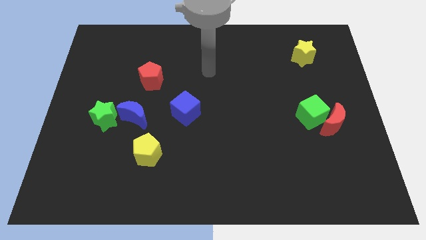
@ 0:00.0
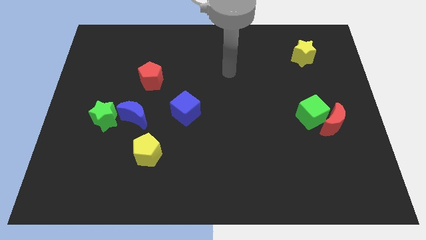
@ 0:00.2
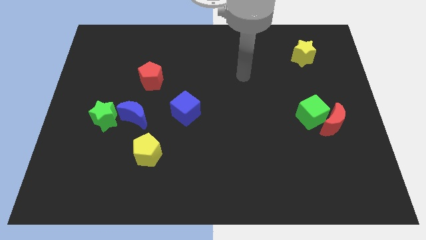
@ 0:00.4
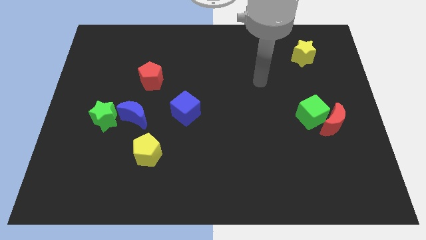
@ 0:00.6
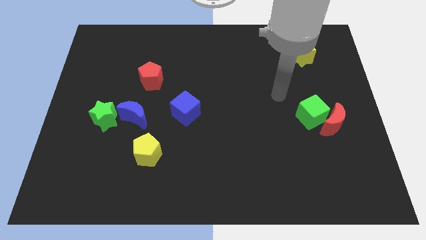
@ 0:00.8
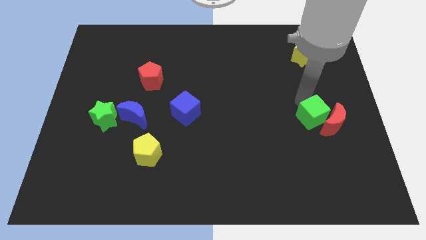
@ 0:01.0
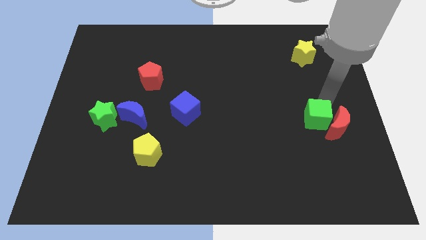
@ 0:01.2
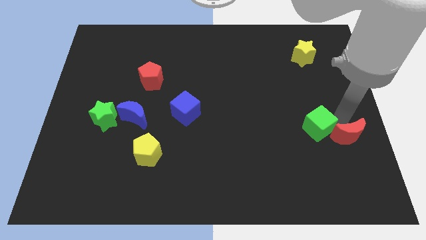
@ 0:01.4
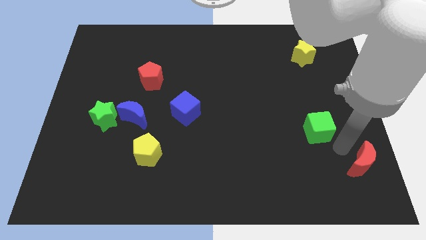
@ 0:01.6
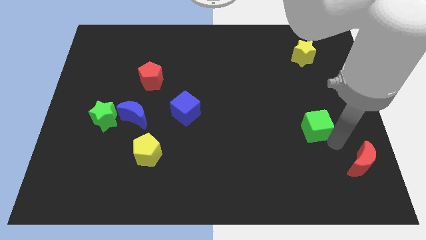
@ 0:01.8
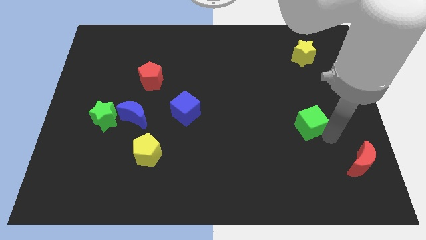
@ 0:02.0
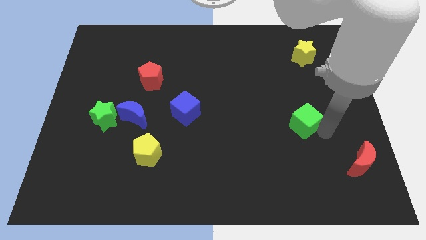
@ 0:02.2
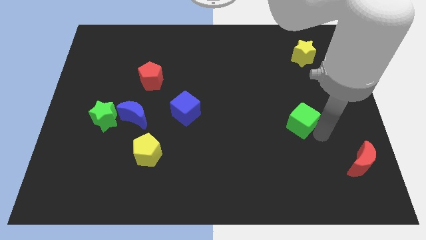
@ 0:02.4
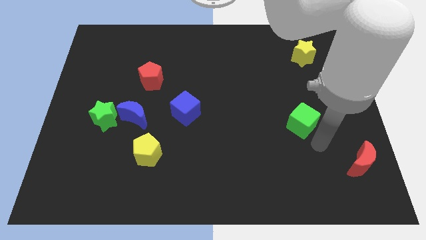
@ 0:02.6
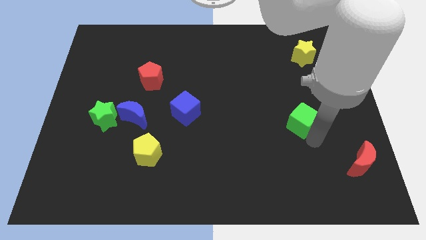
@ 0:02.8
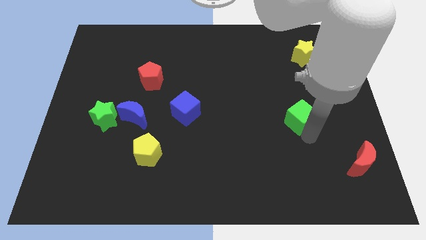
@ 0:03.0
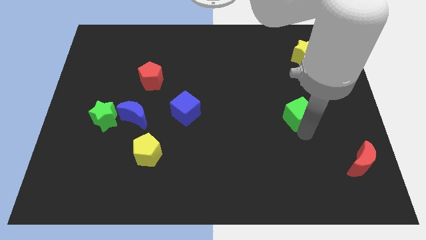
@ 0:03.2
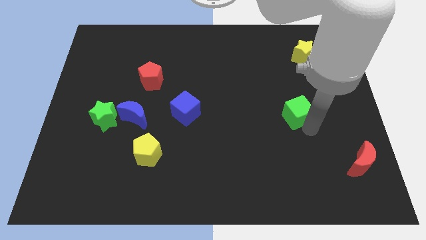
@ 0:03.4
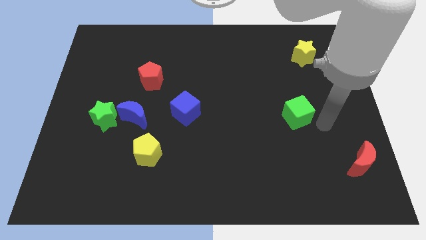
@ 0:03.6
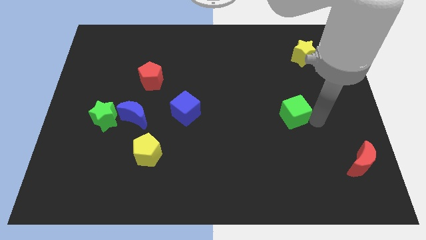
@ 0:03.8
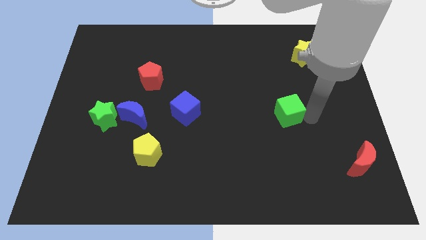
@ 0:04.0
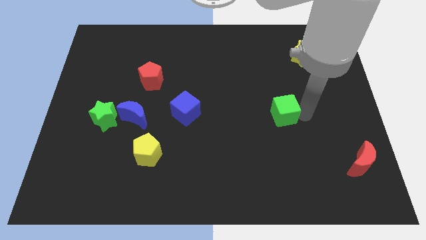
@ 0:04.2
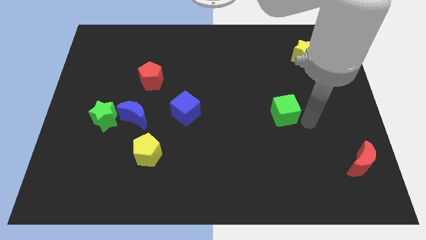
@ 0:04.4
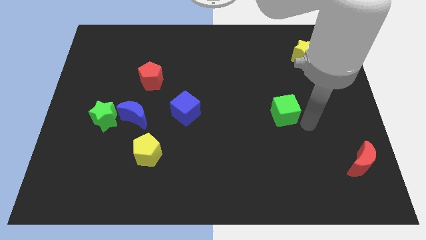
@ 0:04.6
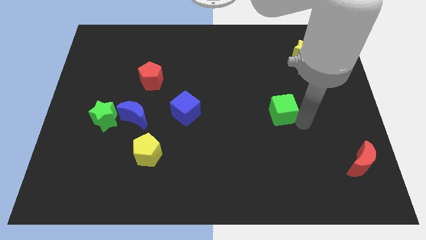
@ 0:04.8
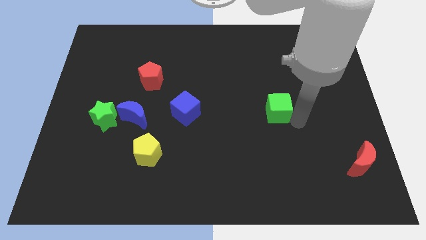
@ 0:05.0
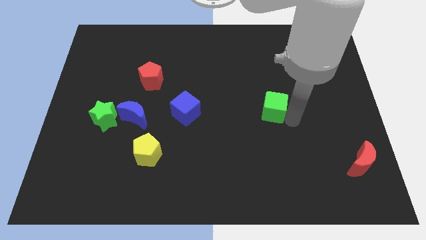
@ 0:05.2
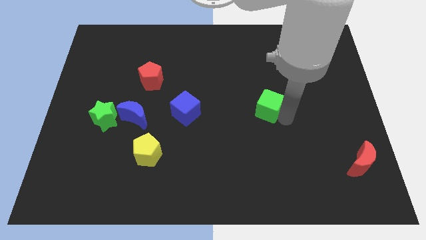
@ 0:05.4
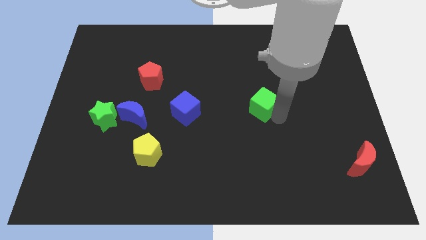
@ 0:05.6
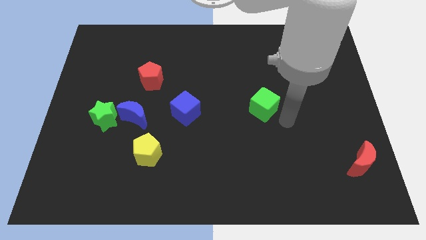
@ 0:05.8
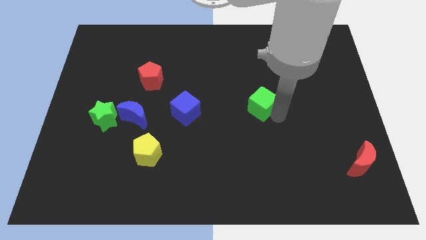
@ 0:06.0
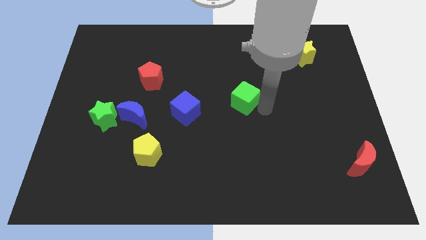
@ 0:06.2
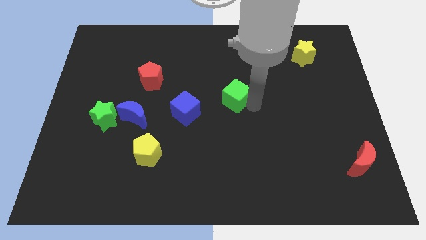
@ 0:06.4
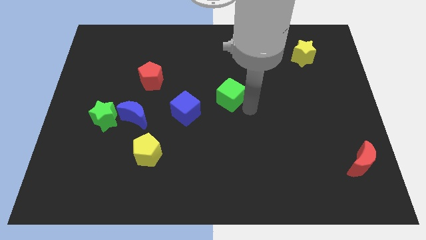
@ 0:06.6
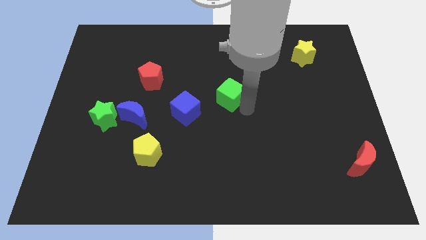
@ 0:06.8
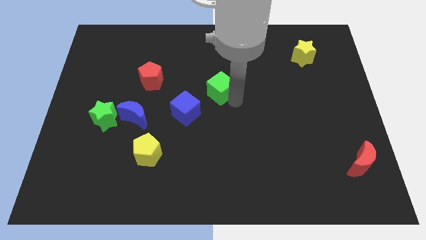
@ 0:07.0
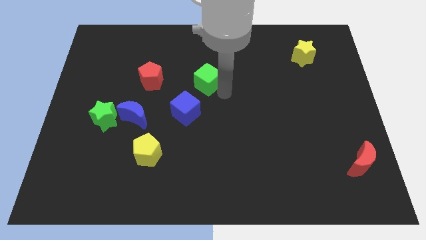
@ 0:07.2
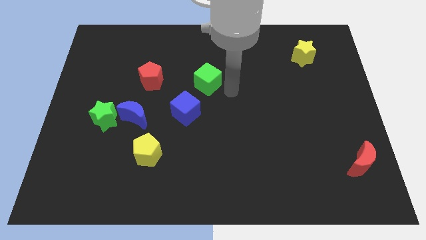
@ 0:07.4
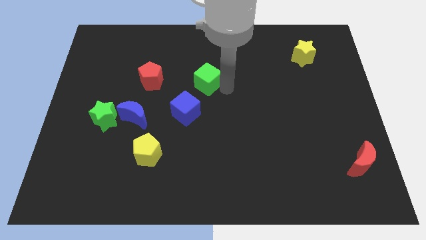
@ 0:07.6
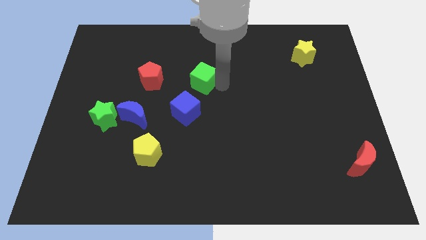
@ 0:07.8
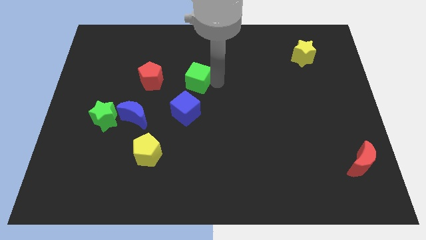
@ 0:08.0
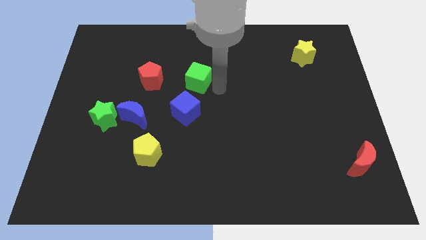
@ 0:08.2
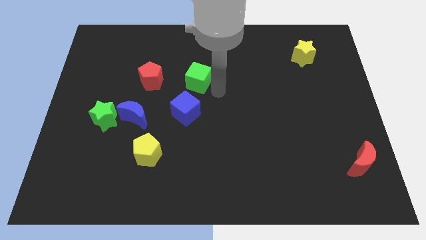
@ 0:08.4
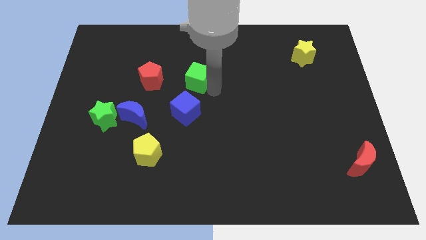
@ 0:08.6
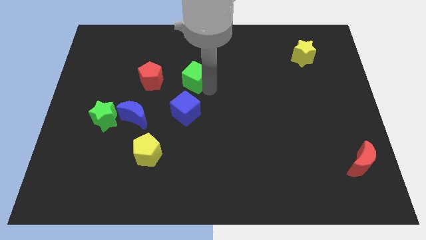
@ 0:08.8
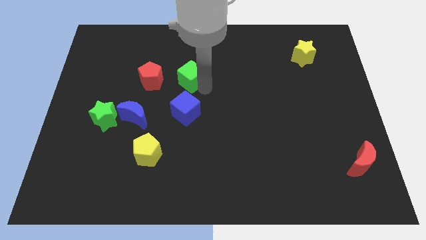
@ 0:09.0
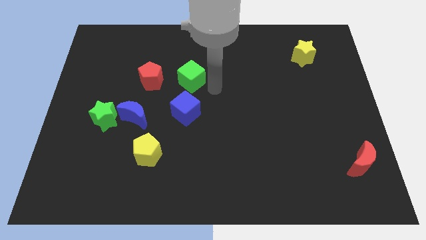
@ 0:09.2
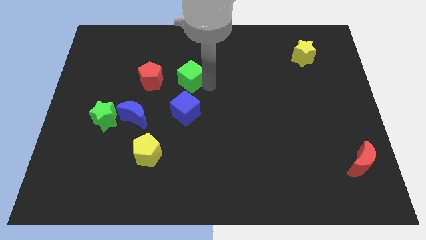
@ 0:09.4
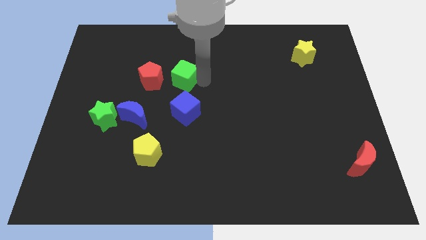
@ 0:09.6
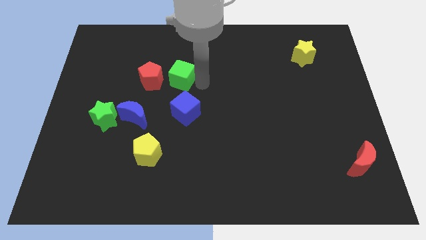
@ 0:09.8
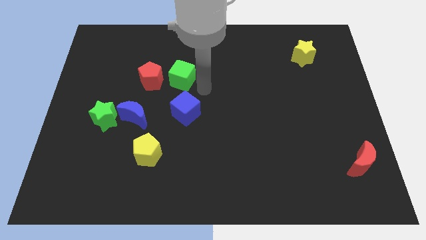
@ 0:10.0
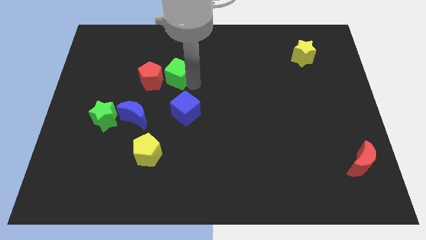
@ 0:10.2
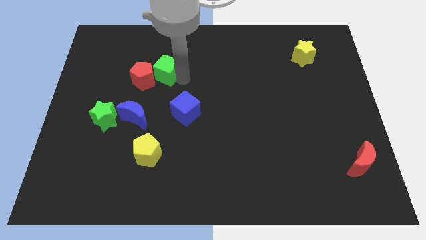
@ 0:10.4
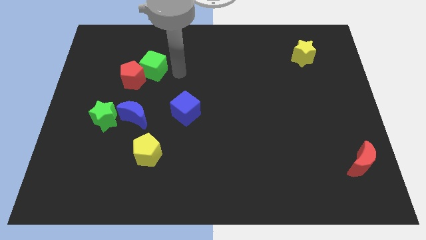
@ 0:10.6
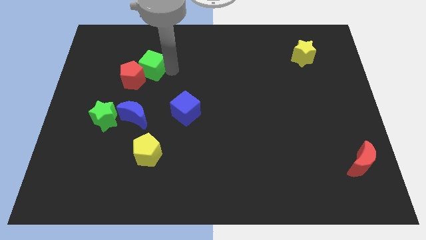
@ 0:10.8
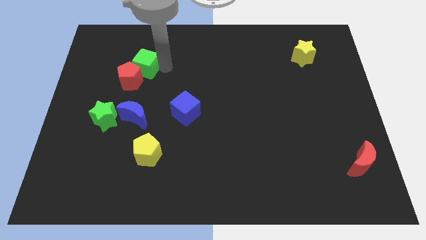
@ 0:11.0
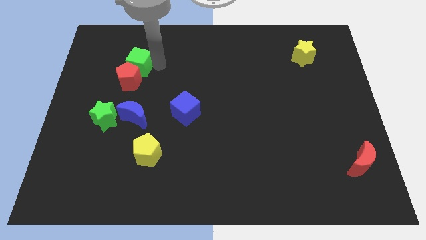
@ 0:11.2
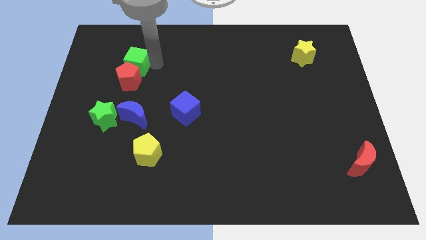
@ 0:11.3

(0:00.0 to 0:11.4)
put the green cube to the top left of the red pentagon

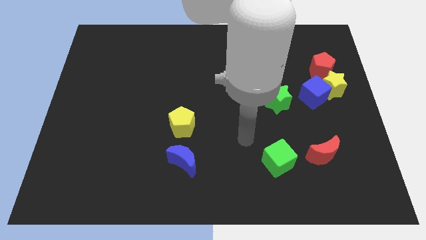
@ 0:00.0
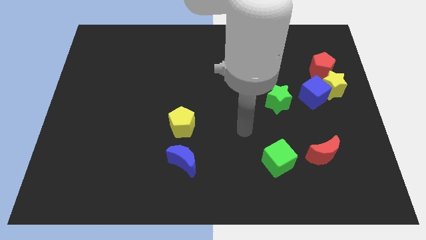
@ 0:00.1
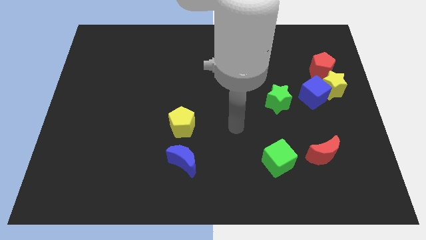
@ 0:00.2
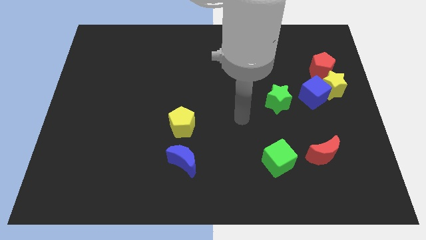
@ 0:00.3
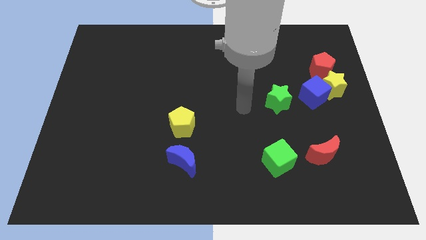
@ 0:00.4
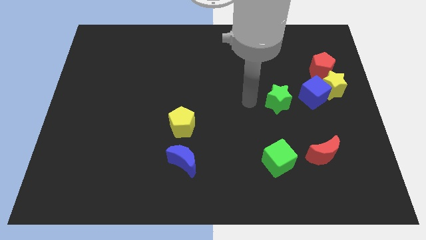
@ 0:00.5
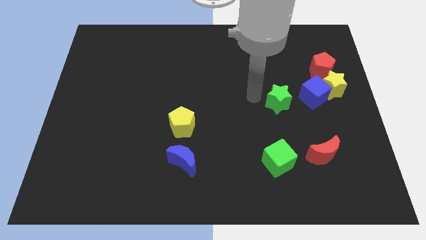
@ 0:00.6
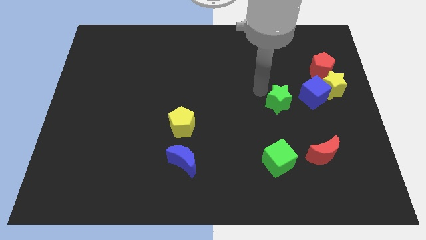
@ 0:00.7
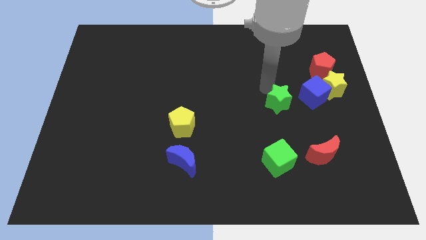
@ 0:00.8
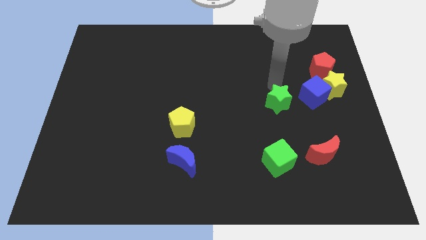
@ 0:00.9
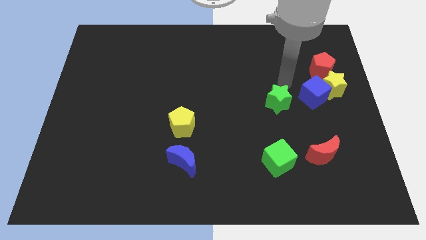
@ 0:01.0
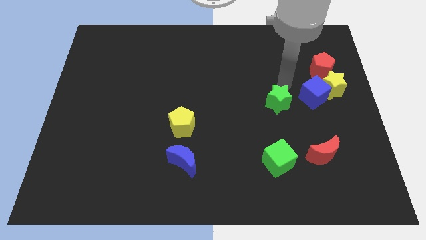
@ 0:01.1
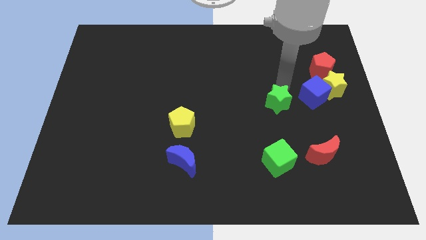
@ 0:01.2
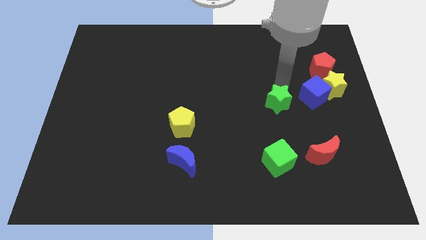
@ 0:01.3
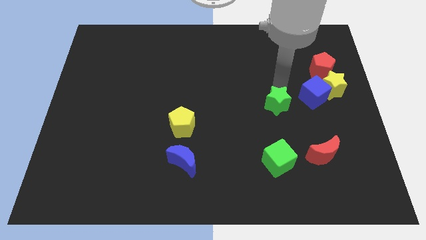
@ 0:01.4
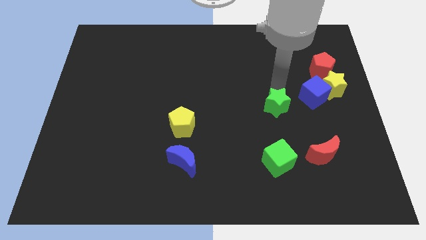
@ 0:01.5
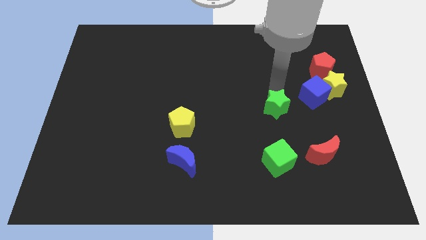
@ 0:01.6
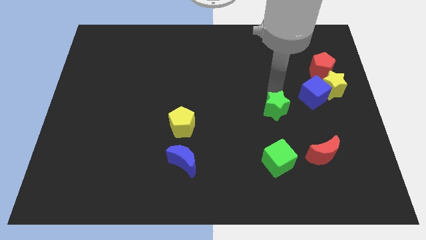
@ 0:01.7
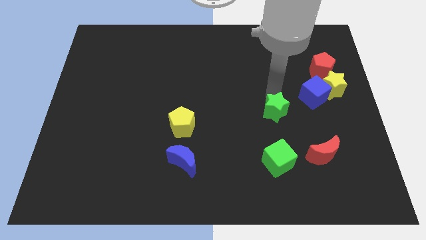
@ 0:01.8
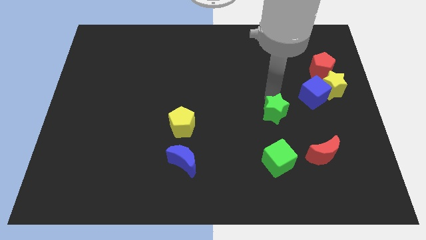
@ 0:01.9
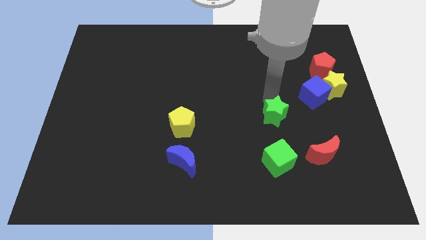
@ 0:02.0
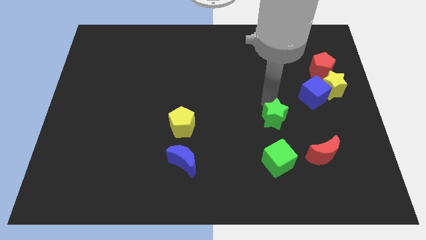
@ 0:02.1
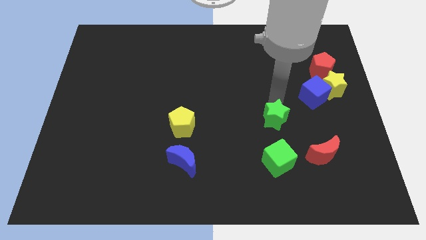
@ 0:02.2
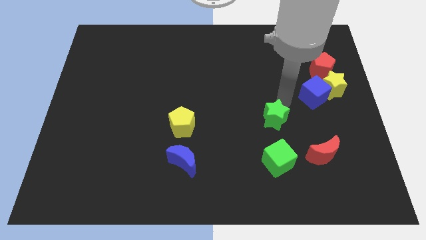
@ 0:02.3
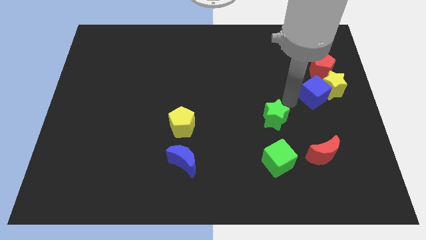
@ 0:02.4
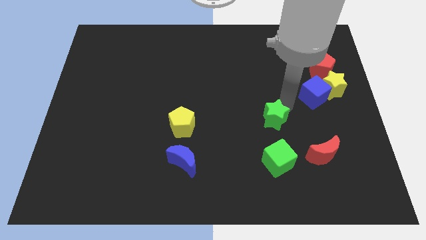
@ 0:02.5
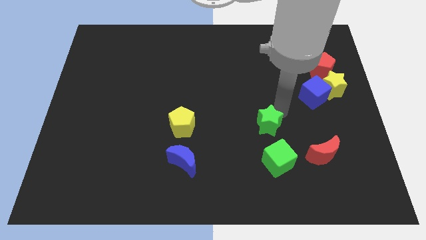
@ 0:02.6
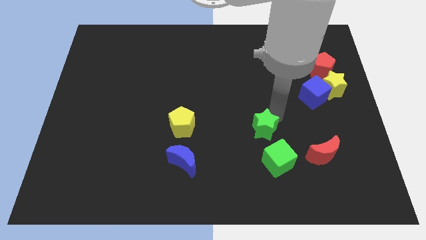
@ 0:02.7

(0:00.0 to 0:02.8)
move the green star to the top left of the green cube
